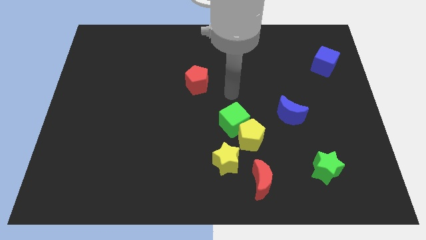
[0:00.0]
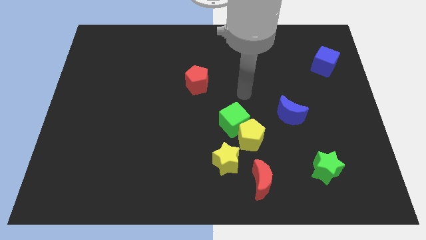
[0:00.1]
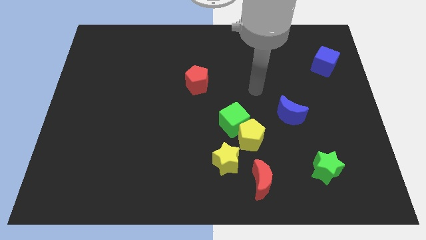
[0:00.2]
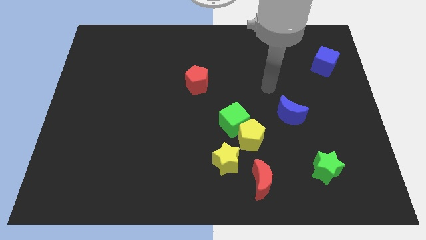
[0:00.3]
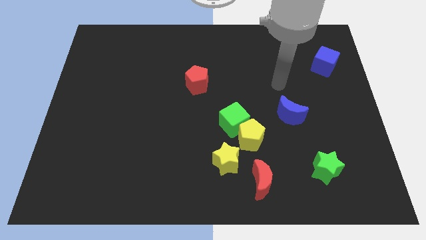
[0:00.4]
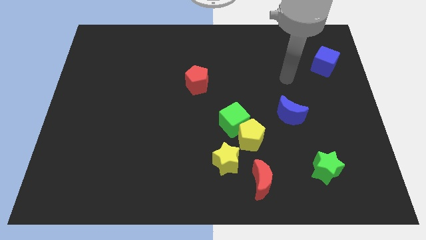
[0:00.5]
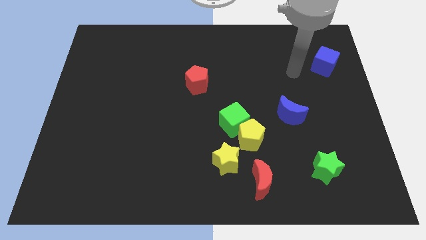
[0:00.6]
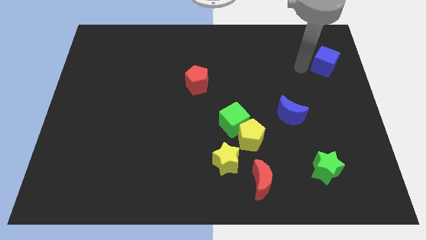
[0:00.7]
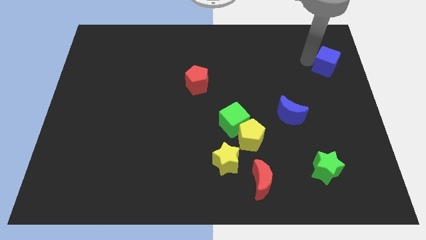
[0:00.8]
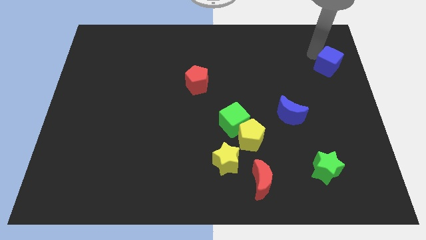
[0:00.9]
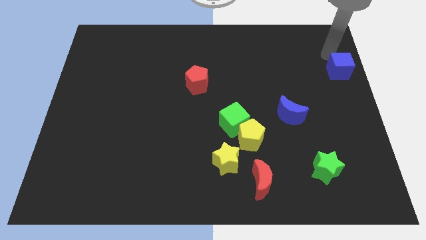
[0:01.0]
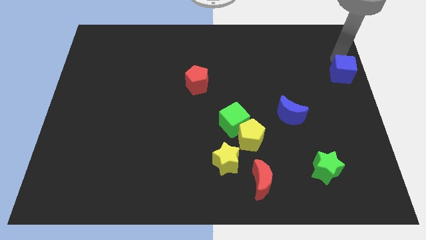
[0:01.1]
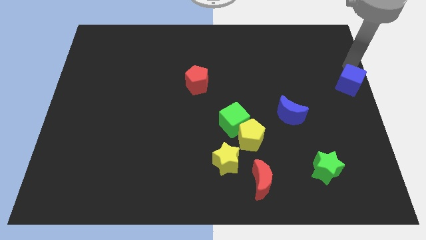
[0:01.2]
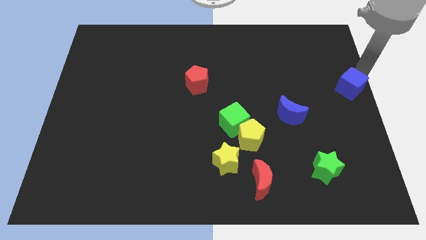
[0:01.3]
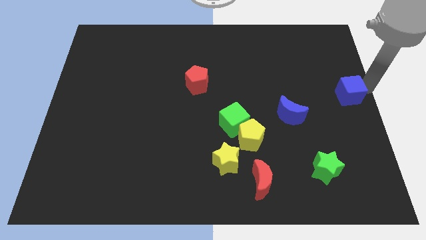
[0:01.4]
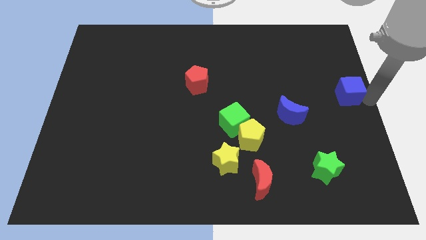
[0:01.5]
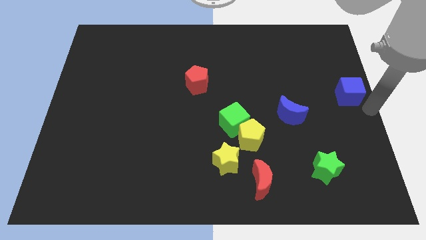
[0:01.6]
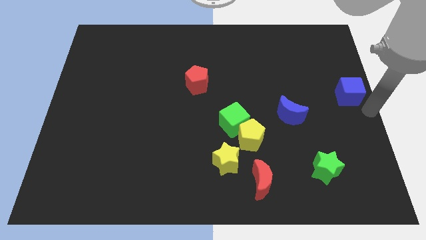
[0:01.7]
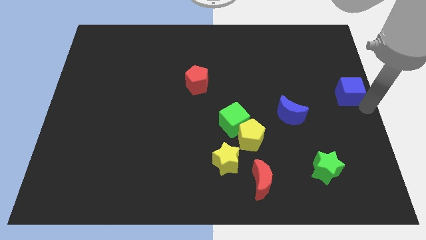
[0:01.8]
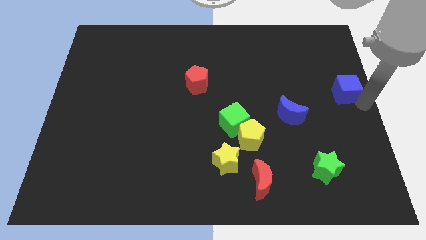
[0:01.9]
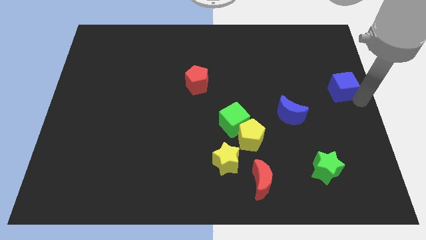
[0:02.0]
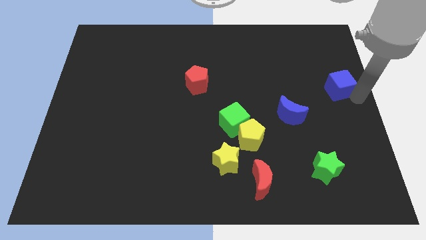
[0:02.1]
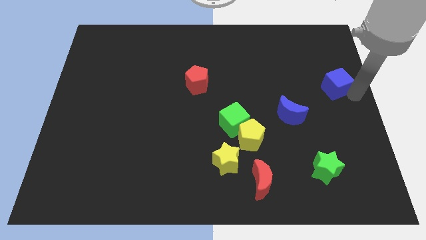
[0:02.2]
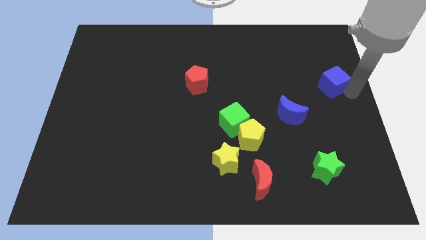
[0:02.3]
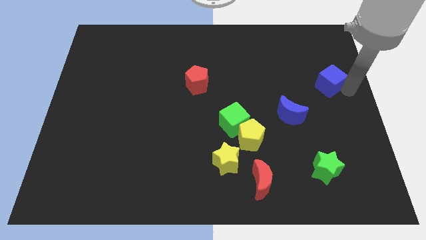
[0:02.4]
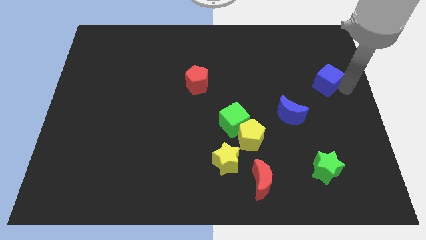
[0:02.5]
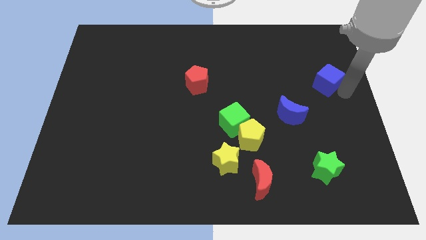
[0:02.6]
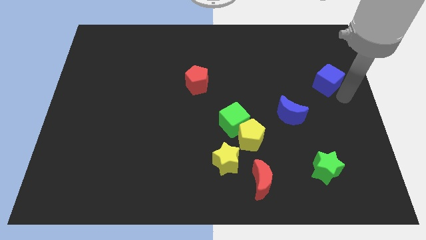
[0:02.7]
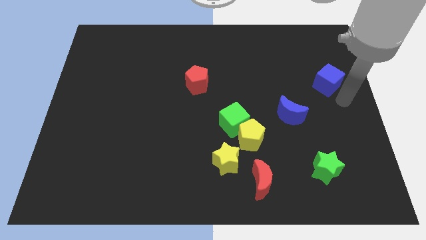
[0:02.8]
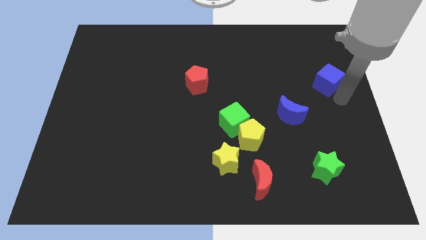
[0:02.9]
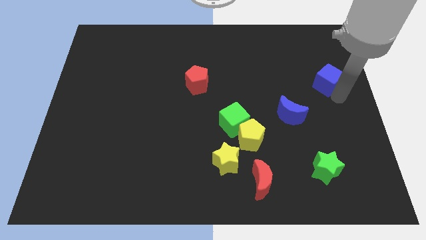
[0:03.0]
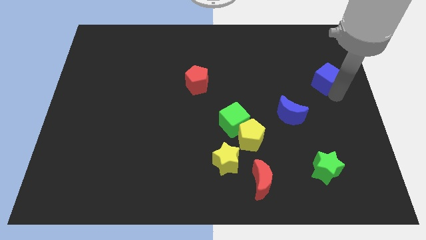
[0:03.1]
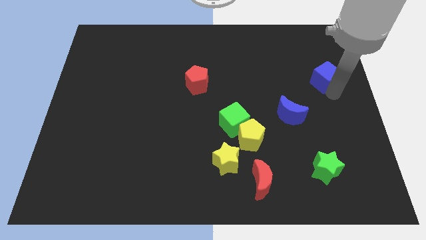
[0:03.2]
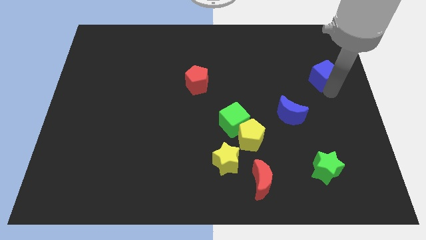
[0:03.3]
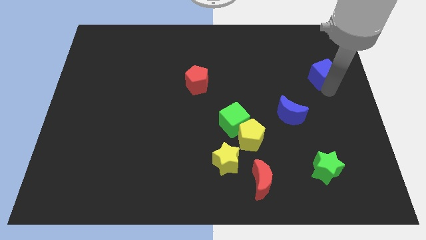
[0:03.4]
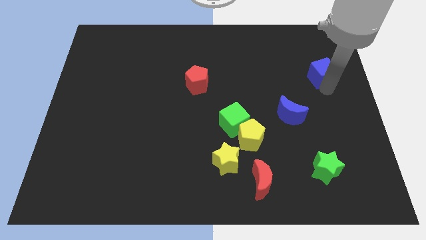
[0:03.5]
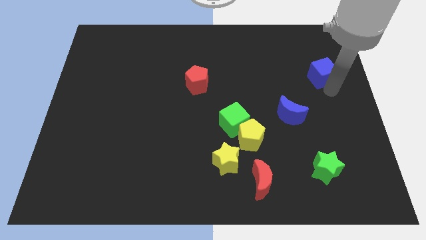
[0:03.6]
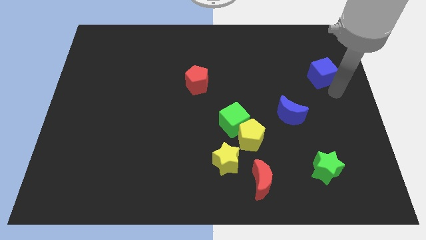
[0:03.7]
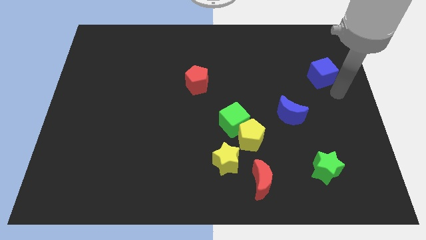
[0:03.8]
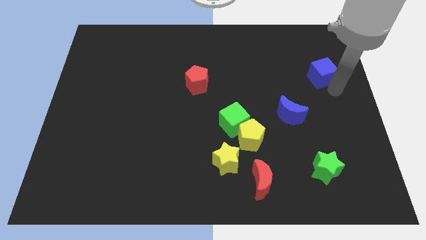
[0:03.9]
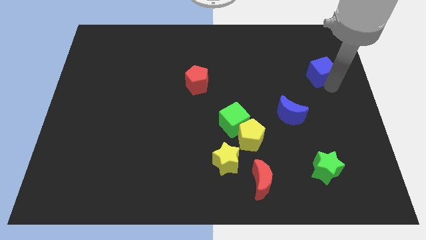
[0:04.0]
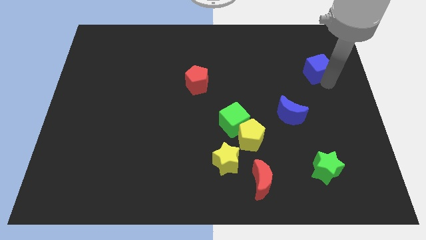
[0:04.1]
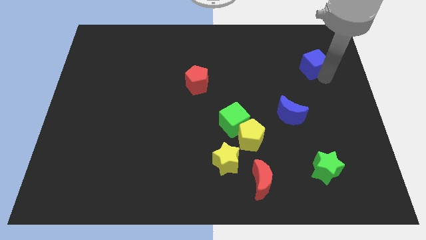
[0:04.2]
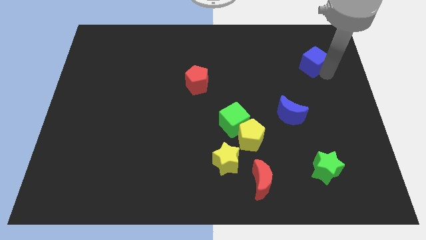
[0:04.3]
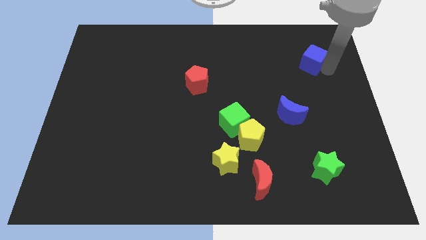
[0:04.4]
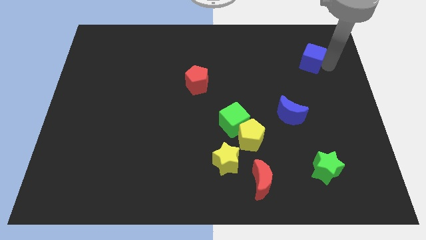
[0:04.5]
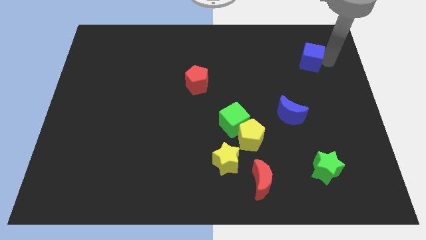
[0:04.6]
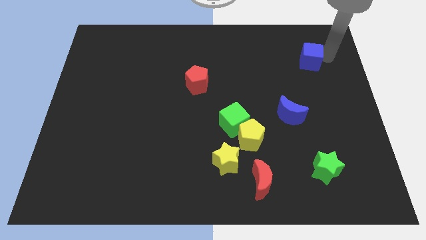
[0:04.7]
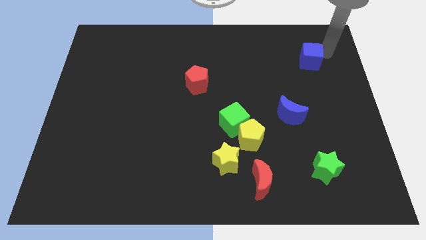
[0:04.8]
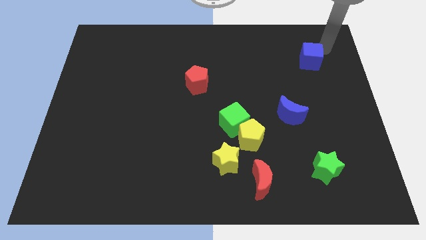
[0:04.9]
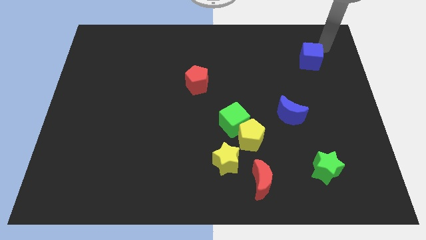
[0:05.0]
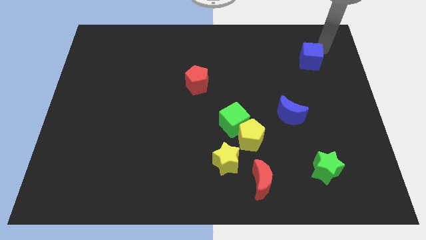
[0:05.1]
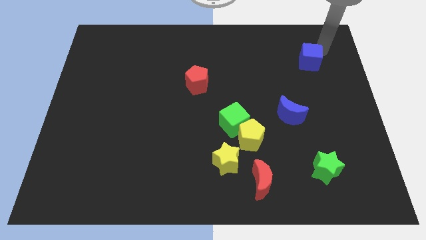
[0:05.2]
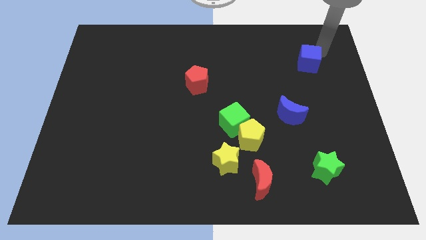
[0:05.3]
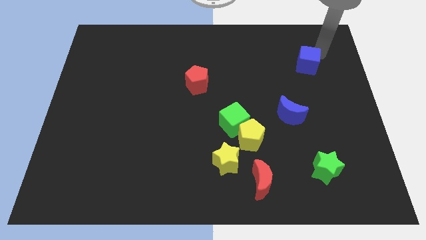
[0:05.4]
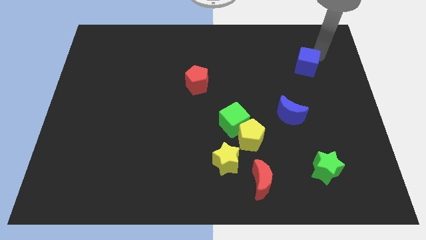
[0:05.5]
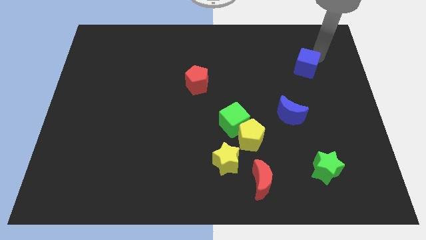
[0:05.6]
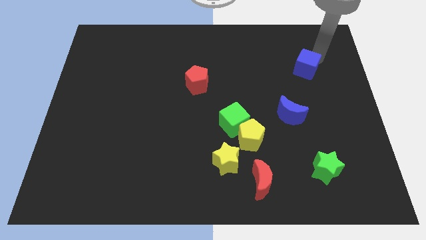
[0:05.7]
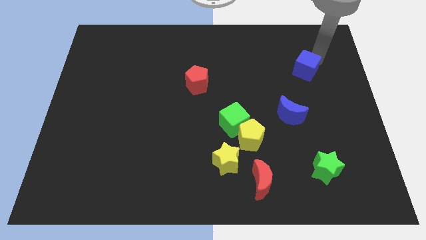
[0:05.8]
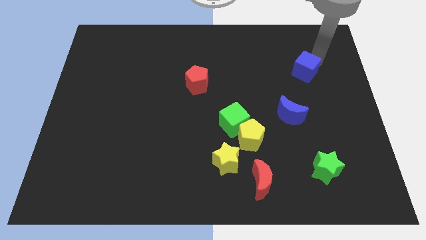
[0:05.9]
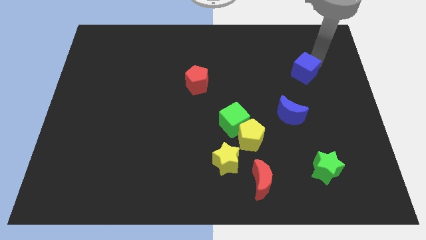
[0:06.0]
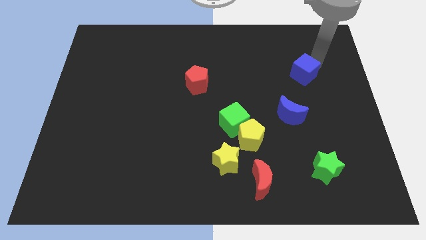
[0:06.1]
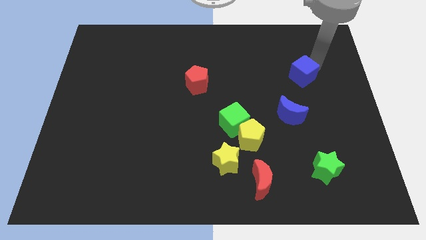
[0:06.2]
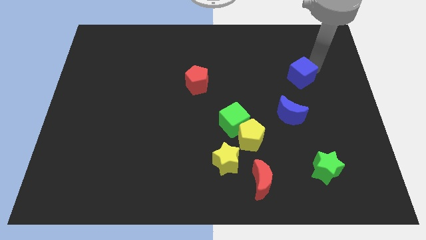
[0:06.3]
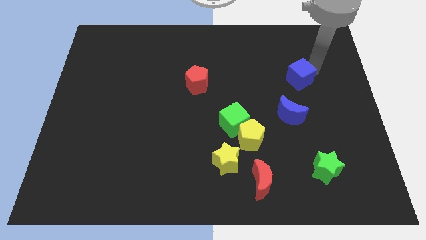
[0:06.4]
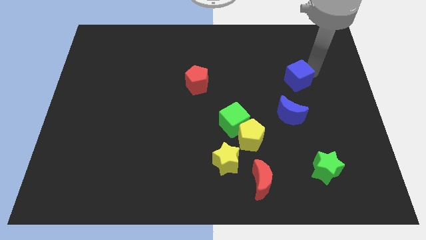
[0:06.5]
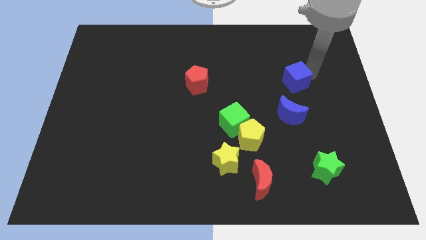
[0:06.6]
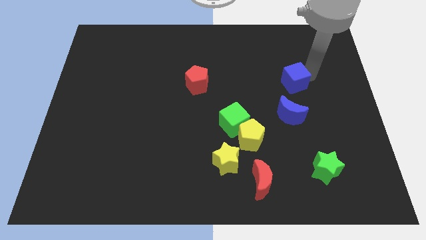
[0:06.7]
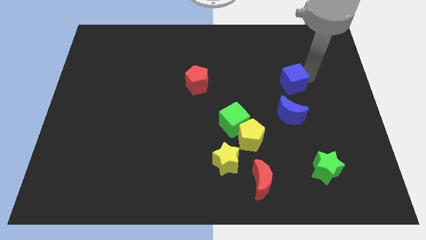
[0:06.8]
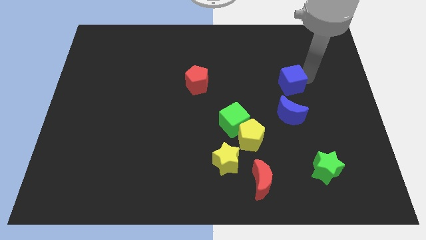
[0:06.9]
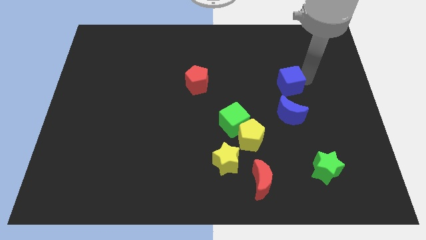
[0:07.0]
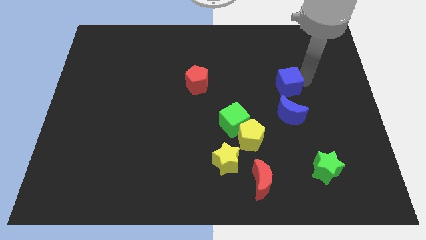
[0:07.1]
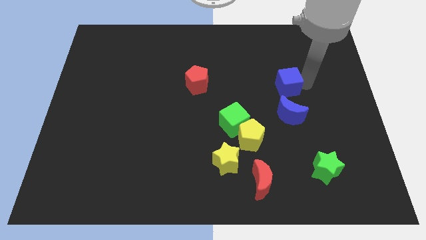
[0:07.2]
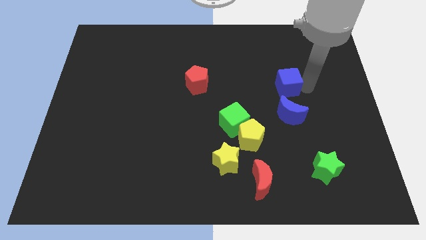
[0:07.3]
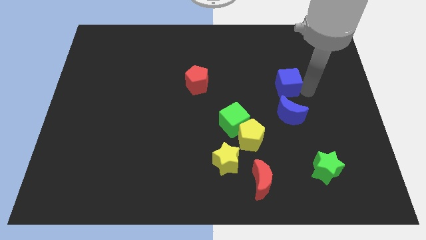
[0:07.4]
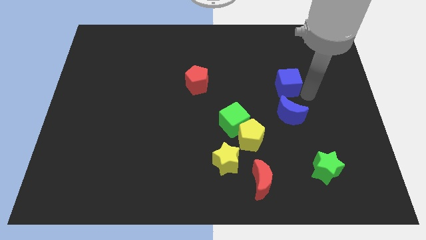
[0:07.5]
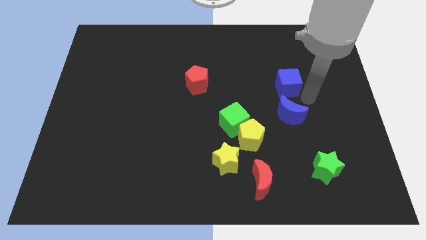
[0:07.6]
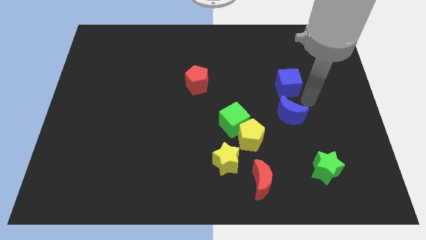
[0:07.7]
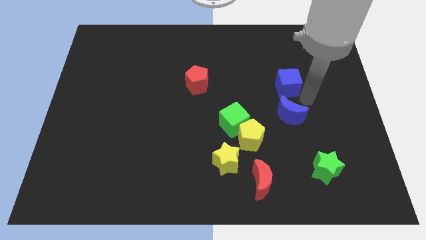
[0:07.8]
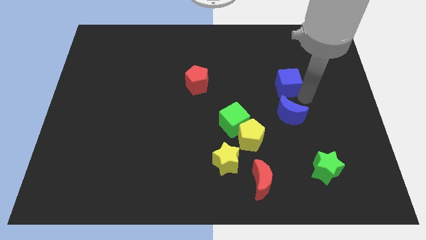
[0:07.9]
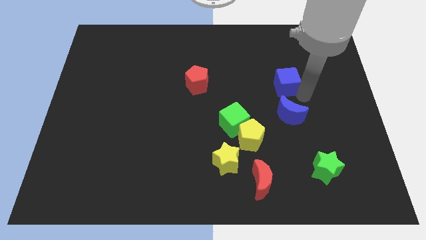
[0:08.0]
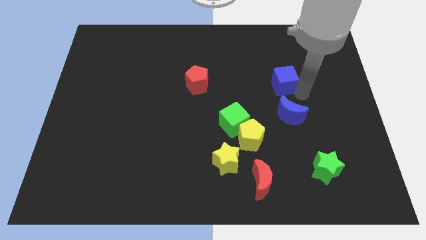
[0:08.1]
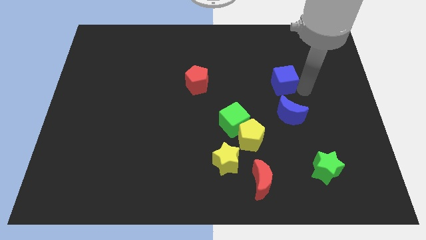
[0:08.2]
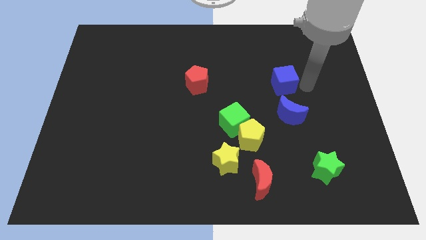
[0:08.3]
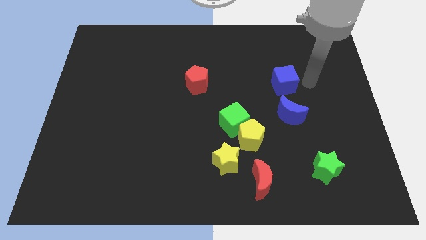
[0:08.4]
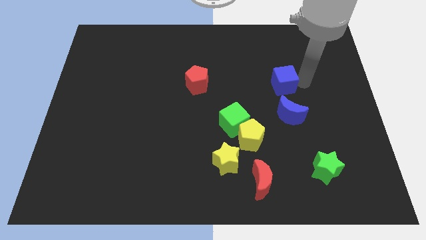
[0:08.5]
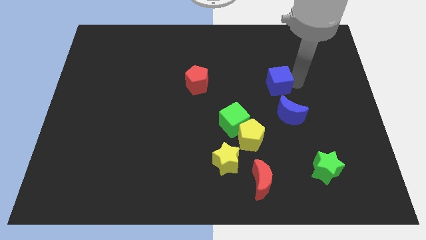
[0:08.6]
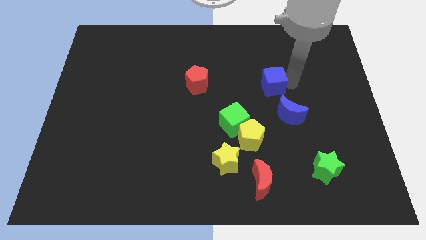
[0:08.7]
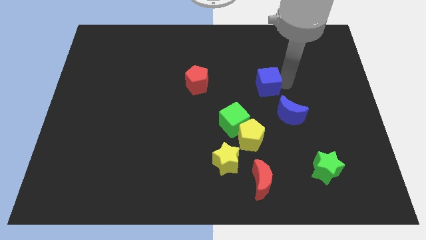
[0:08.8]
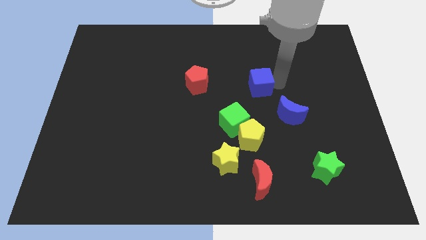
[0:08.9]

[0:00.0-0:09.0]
slide the blue cube to the middle
